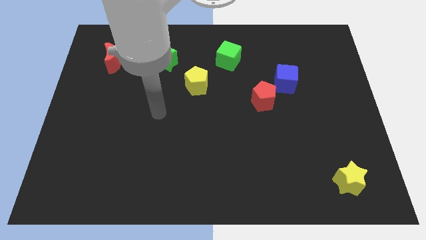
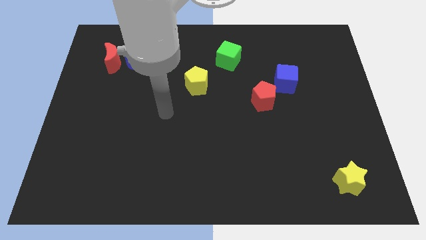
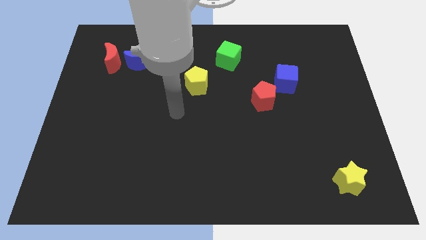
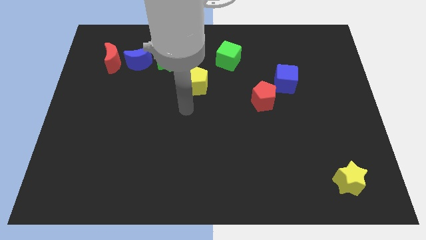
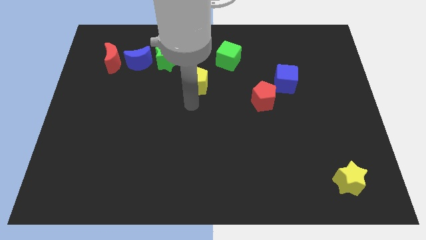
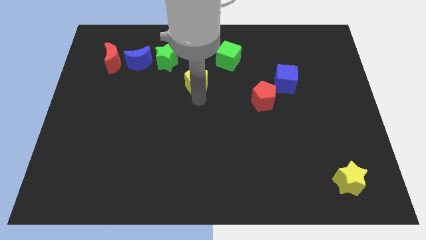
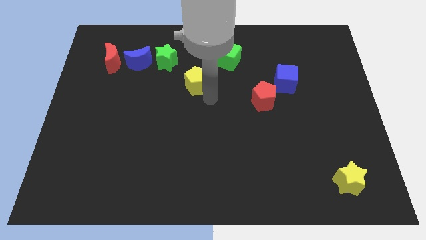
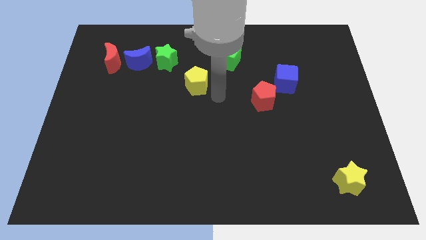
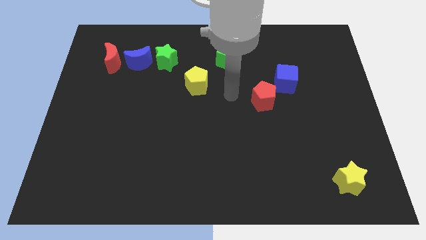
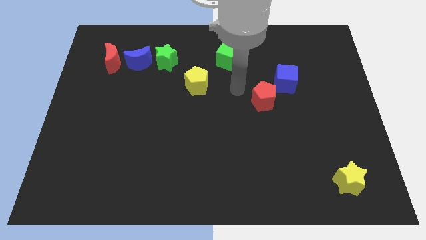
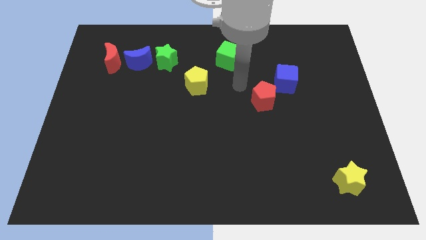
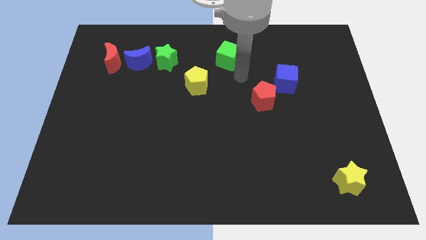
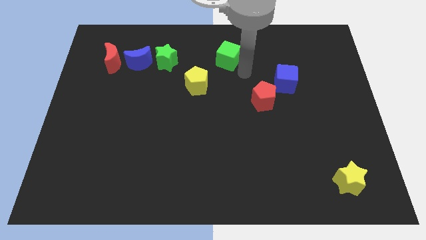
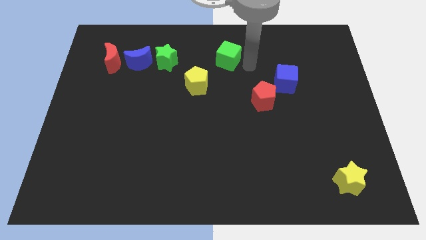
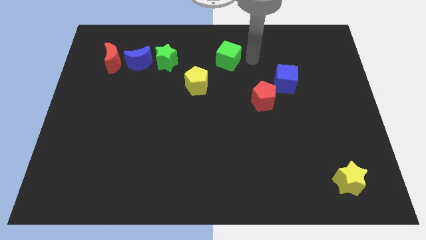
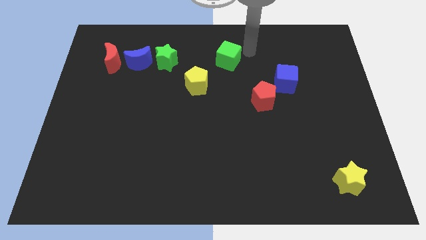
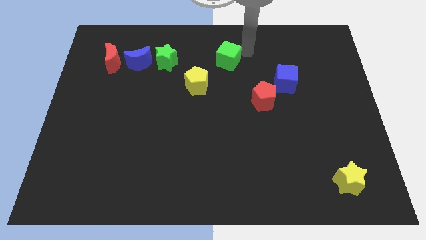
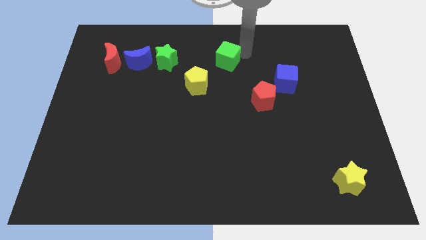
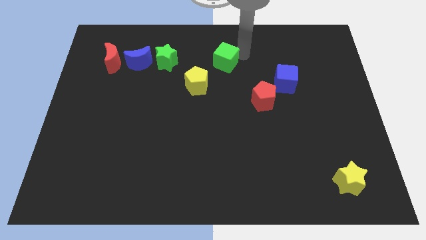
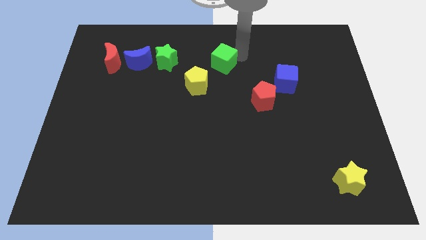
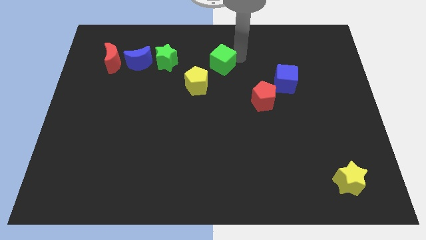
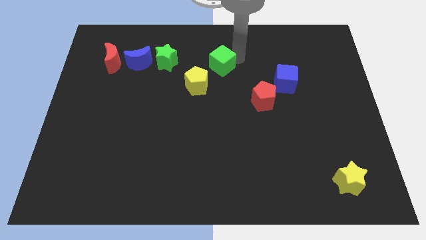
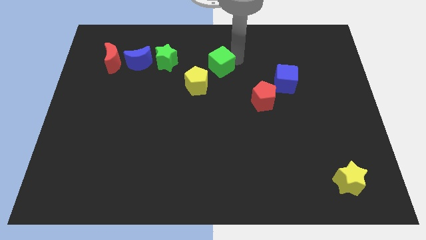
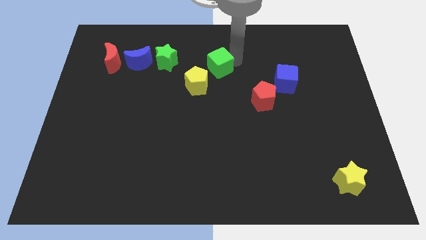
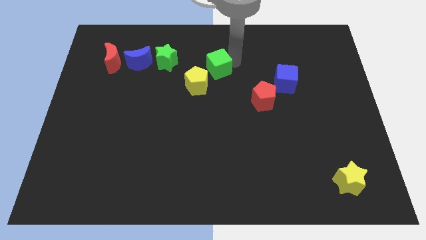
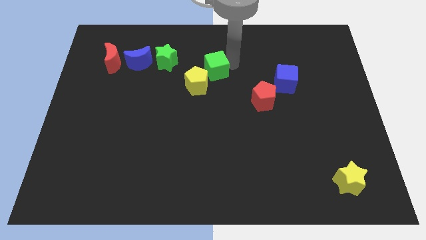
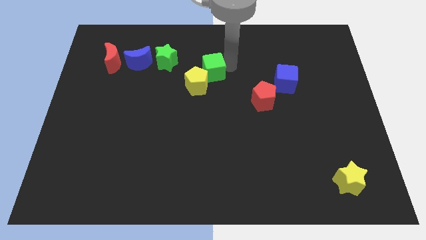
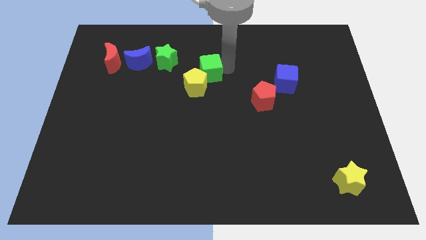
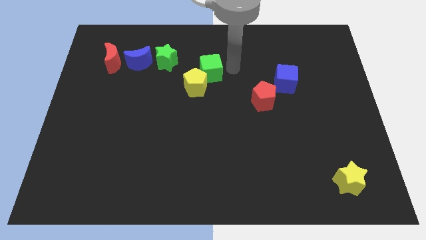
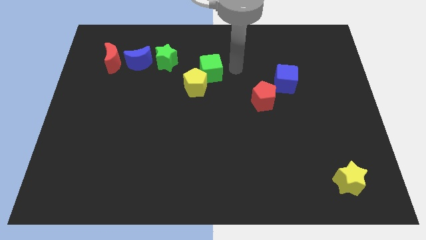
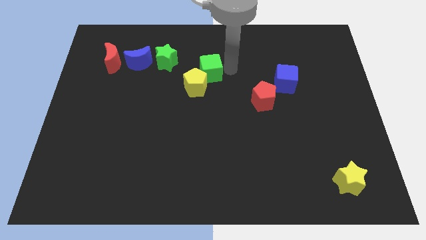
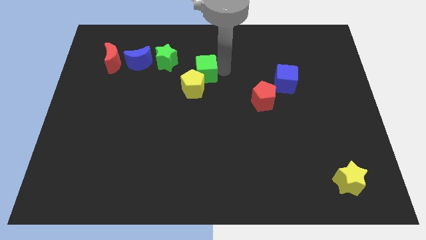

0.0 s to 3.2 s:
move the green cube a little bit downwards and left

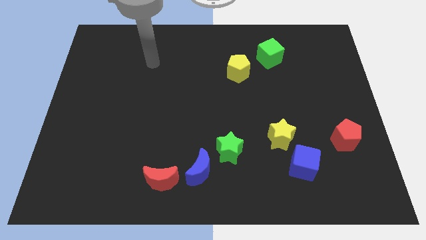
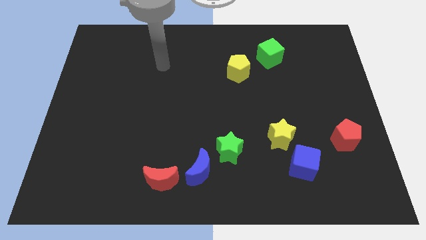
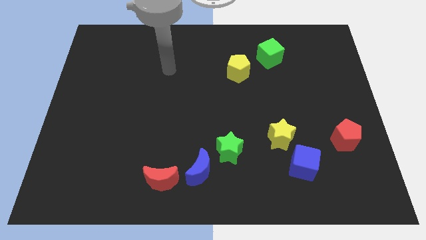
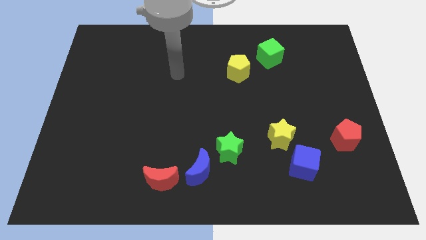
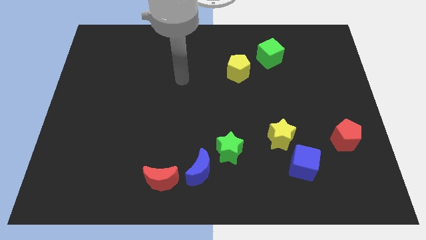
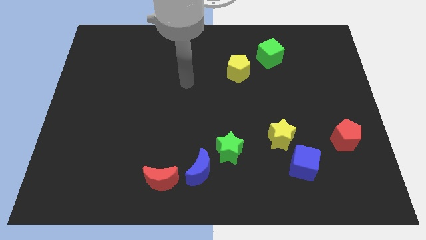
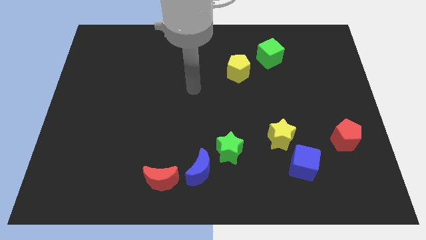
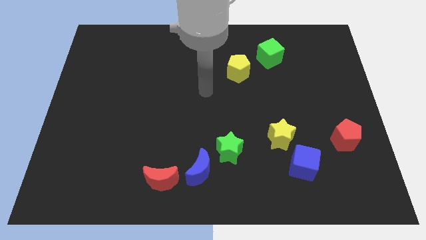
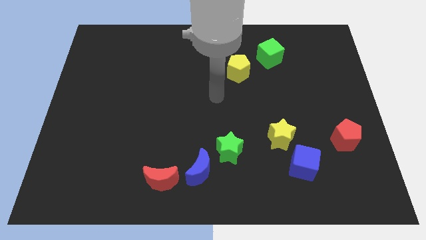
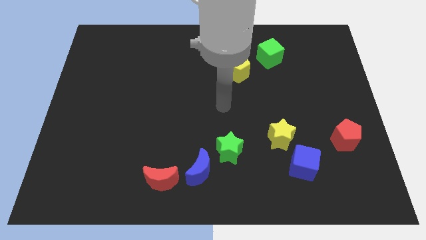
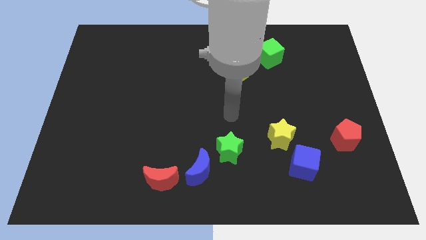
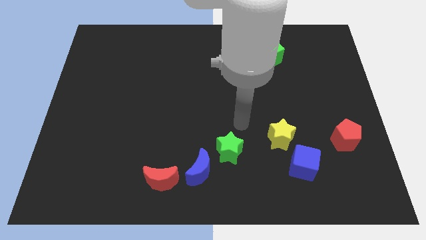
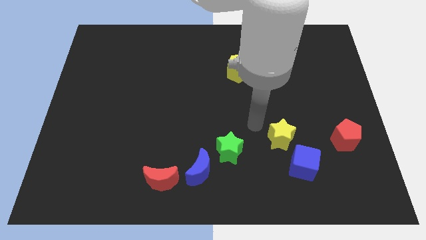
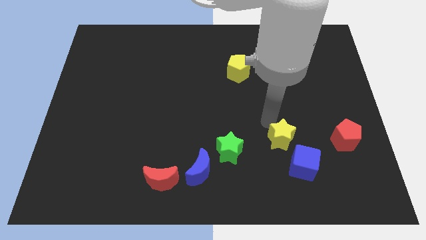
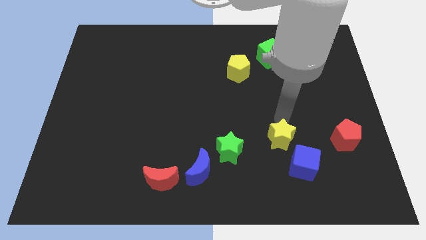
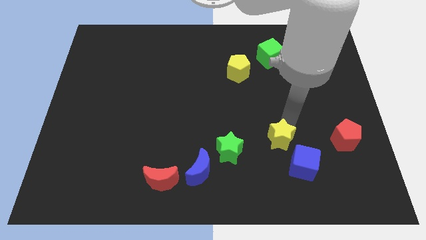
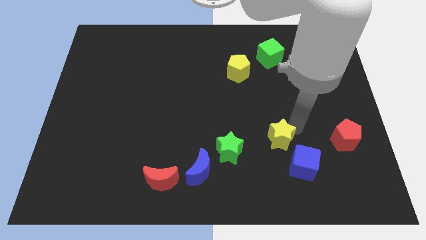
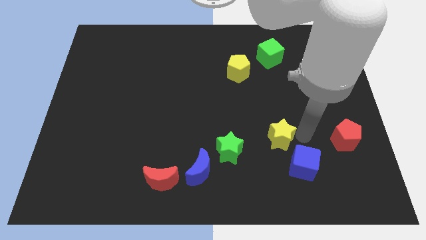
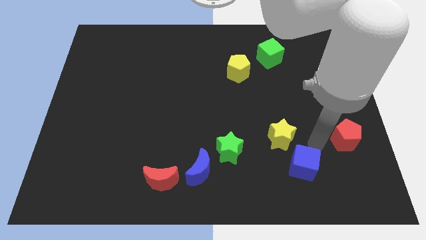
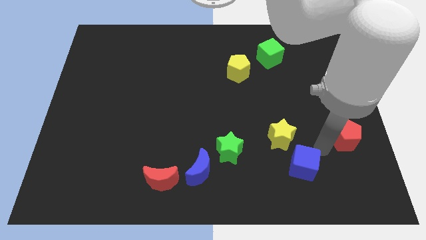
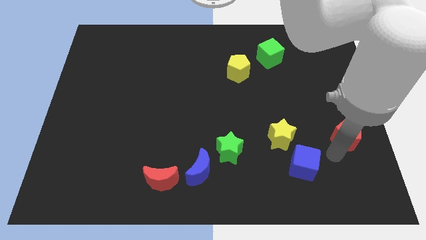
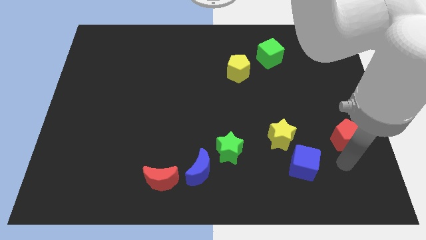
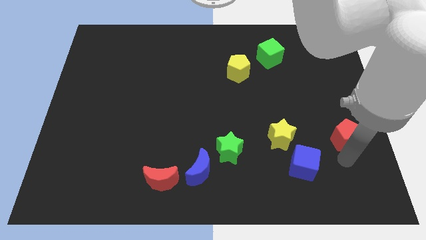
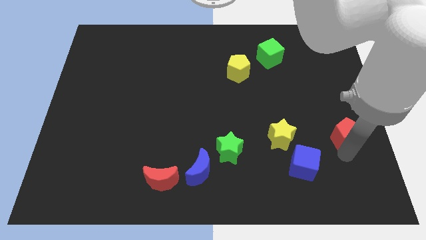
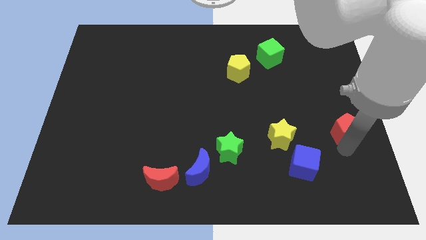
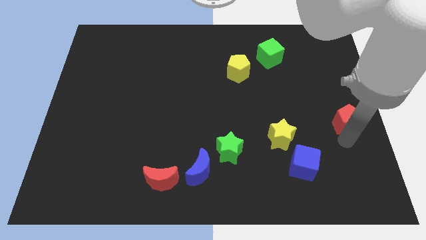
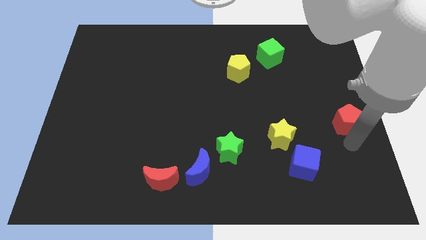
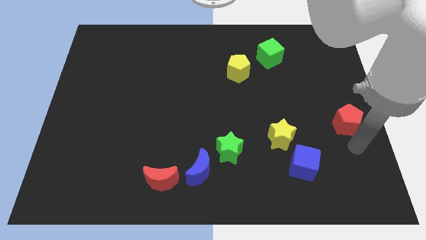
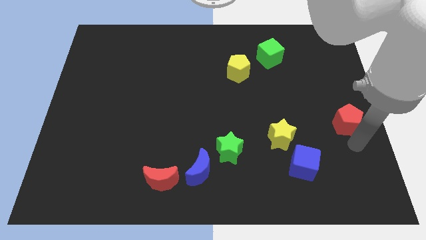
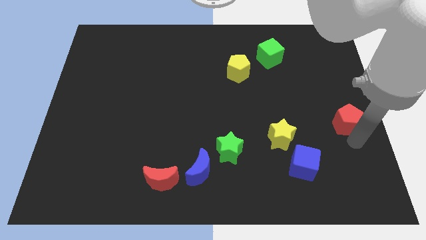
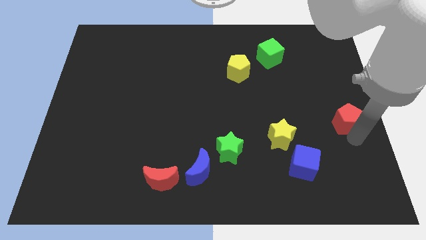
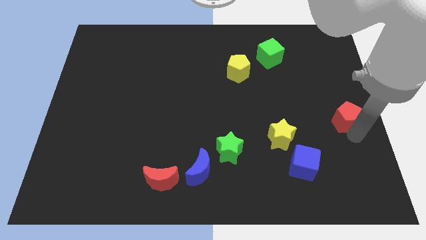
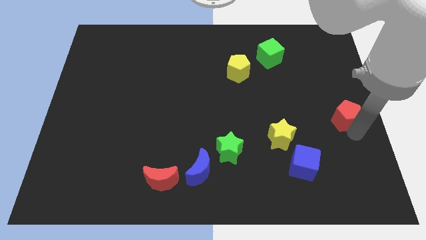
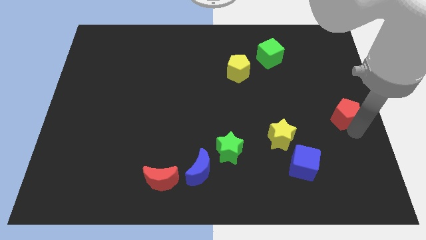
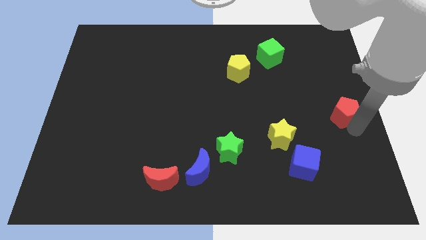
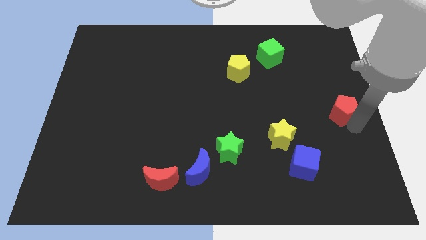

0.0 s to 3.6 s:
slightly move the red pentagon up

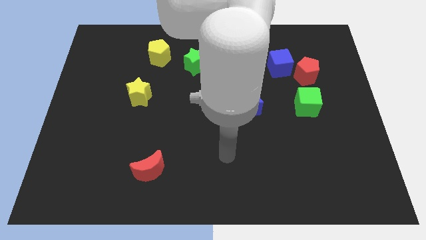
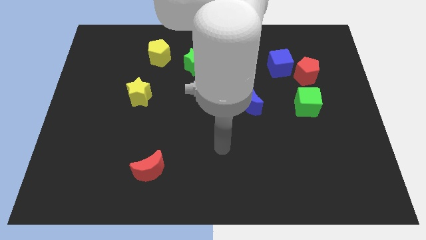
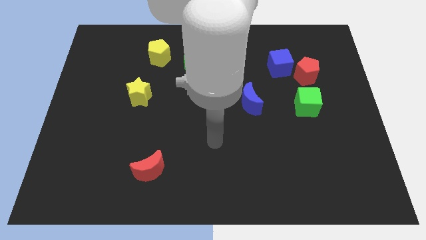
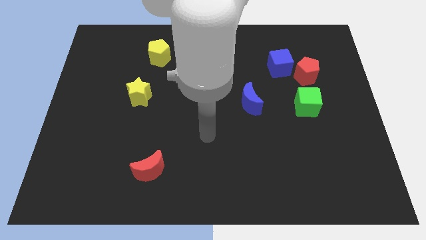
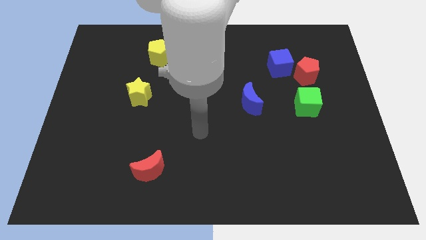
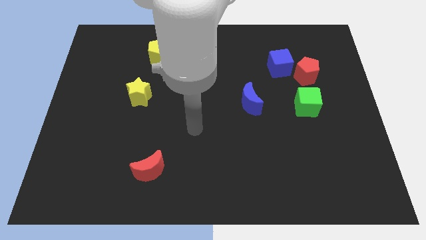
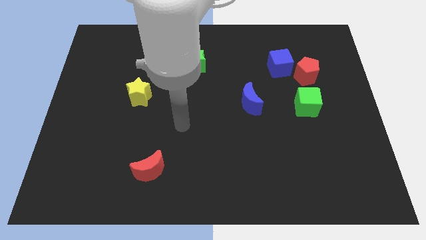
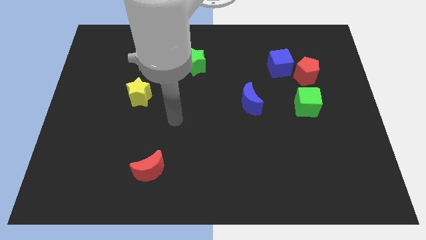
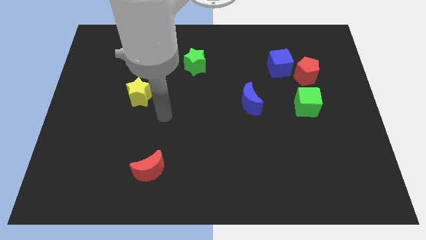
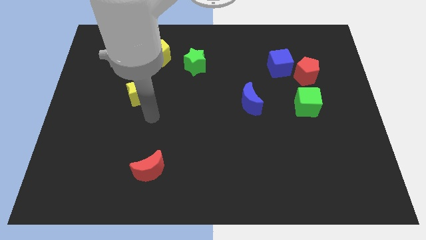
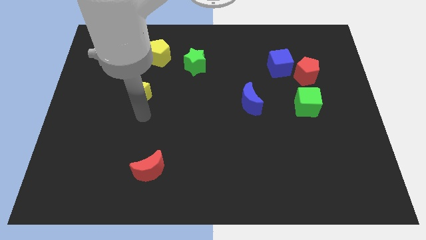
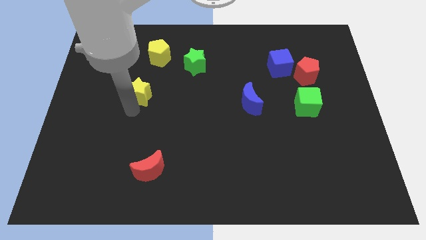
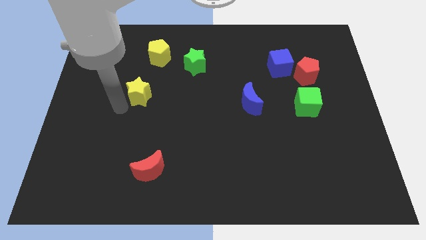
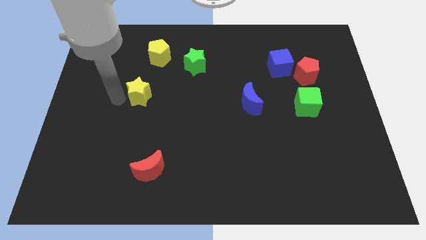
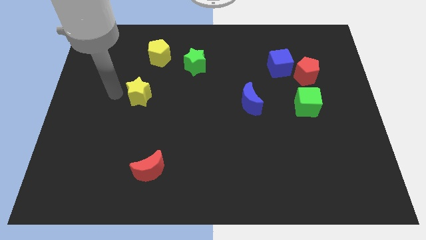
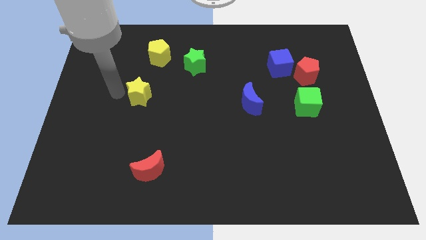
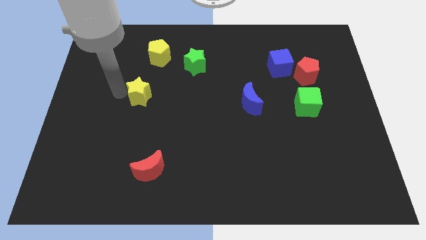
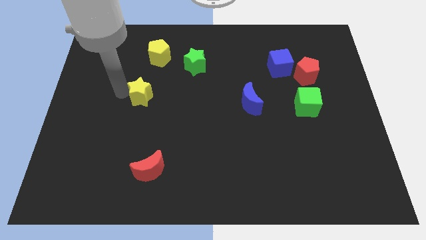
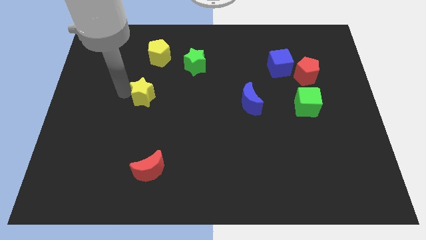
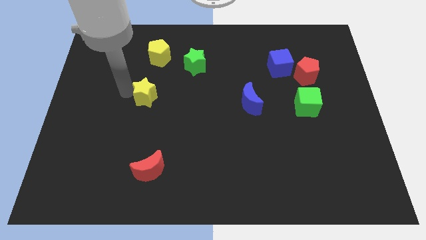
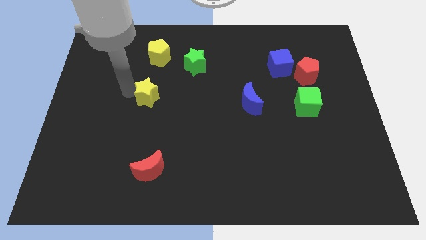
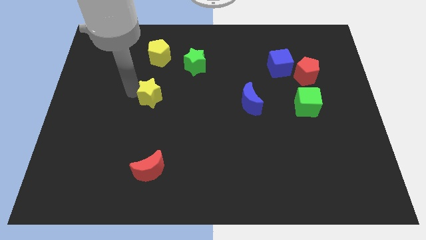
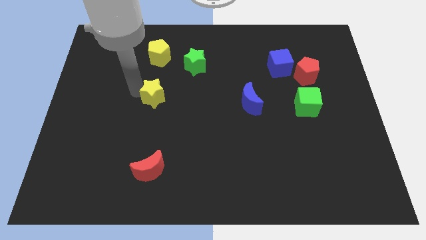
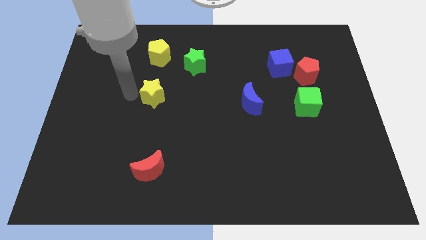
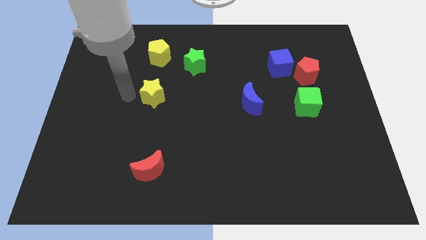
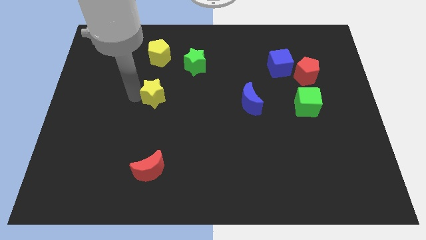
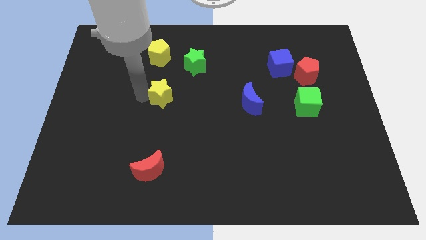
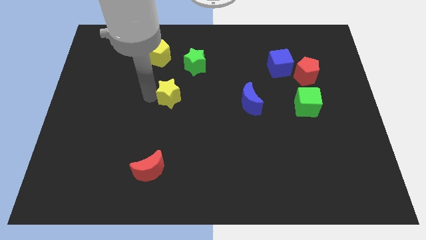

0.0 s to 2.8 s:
move the yellow star a little to the right
